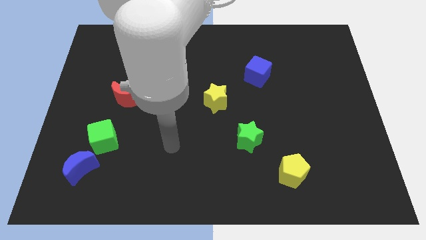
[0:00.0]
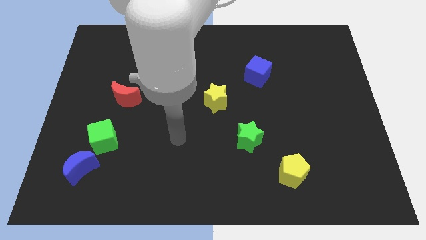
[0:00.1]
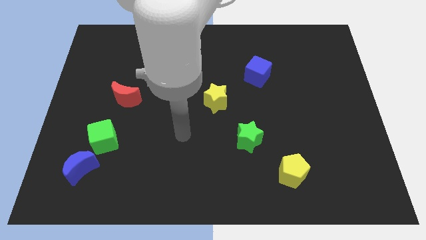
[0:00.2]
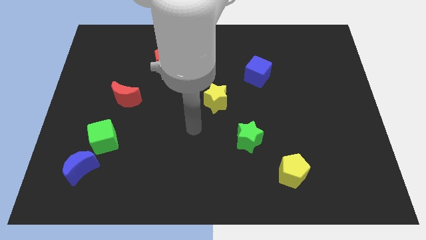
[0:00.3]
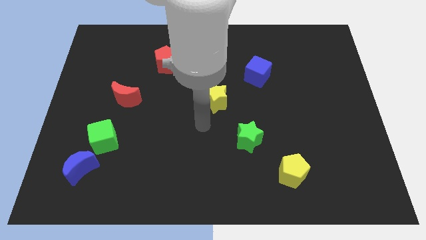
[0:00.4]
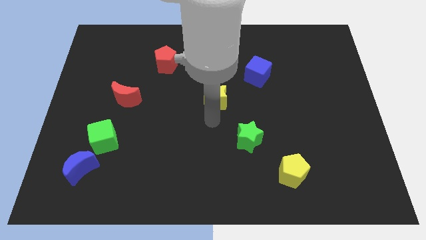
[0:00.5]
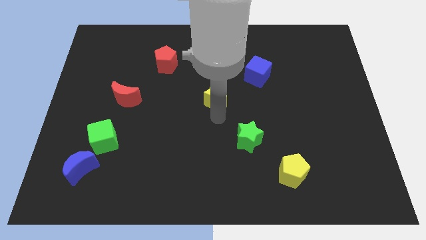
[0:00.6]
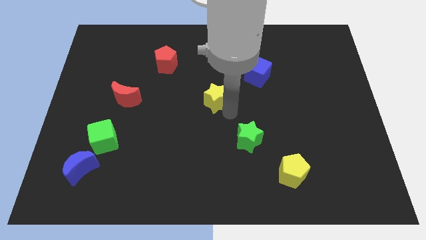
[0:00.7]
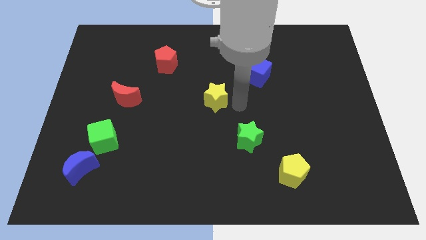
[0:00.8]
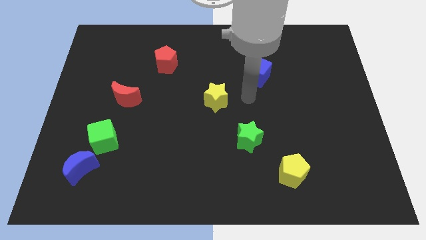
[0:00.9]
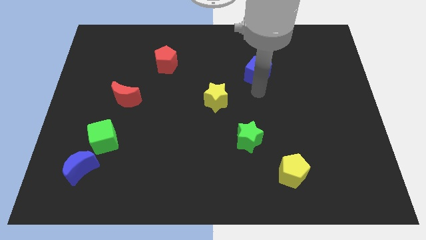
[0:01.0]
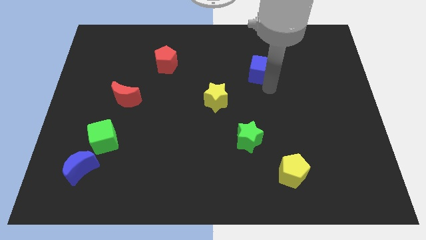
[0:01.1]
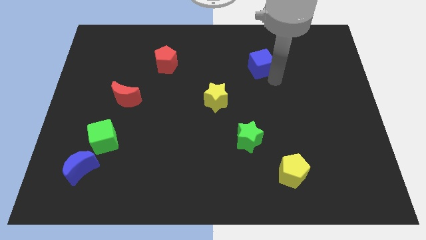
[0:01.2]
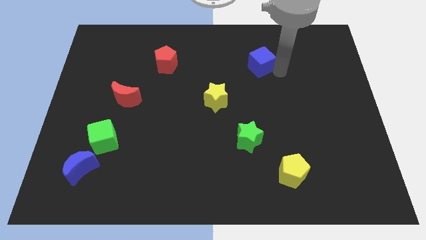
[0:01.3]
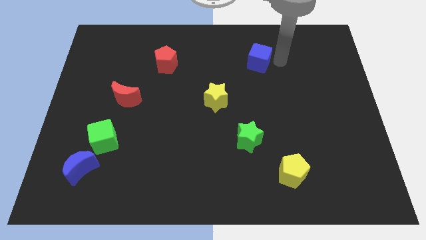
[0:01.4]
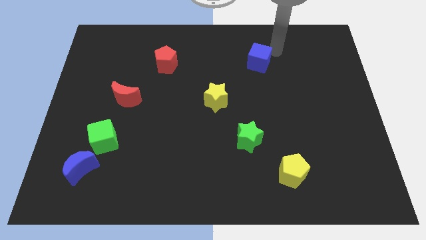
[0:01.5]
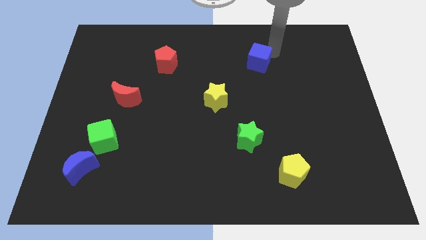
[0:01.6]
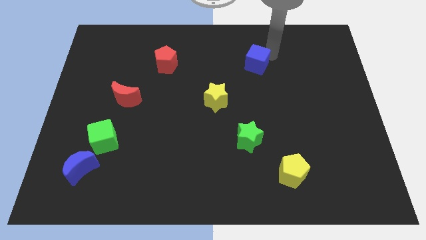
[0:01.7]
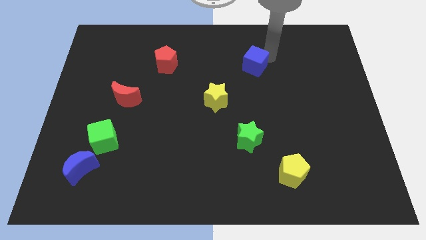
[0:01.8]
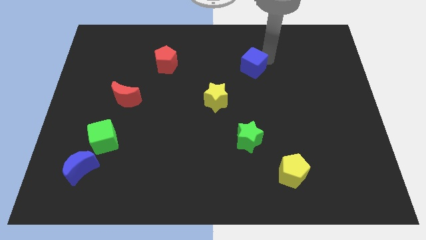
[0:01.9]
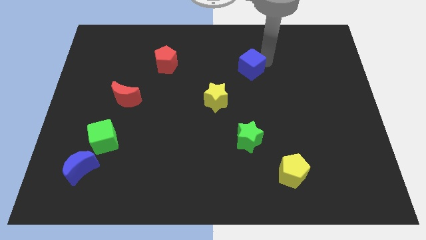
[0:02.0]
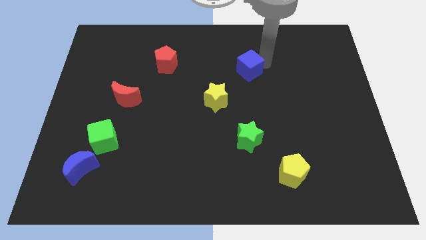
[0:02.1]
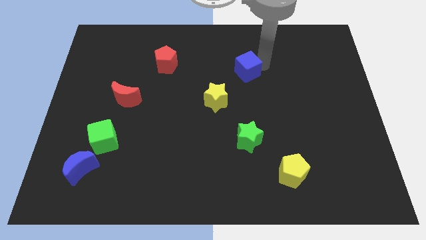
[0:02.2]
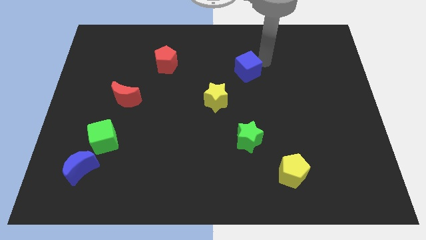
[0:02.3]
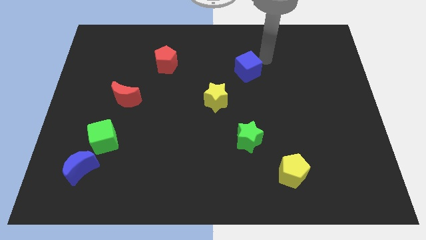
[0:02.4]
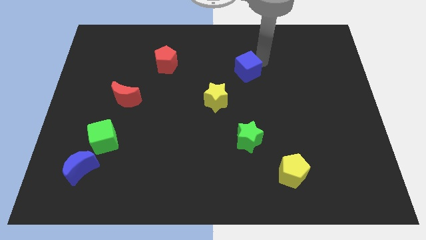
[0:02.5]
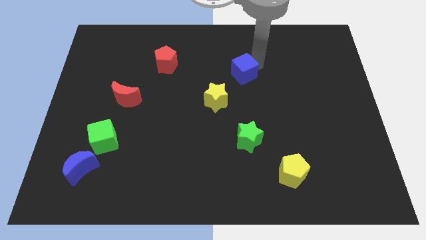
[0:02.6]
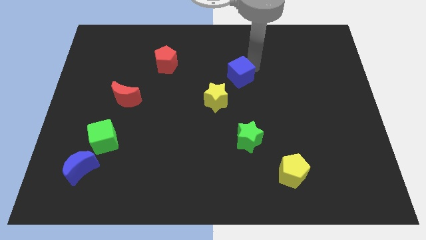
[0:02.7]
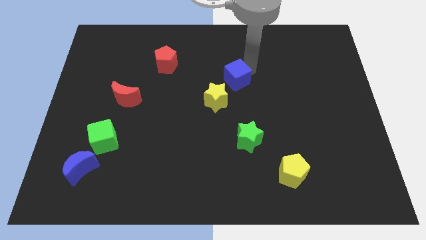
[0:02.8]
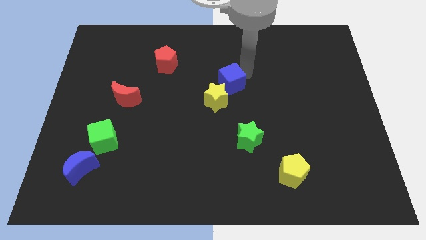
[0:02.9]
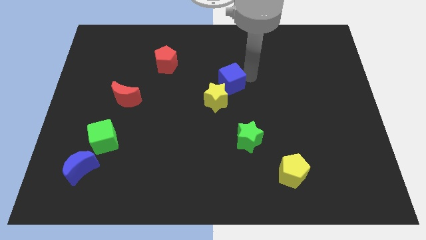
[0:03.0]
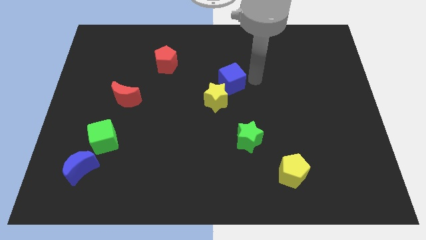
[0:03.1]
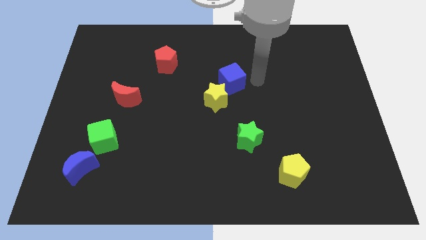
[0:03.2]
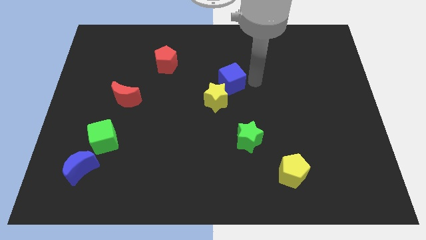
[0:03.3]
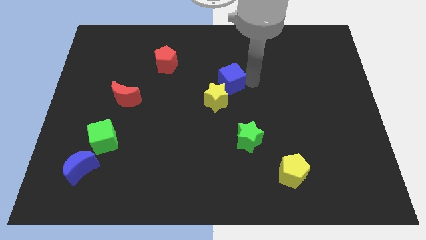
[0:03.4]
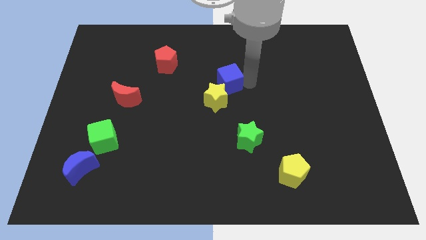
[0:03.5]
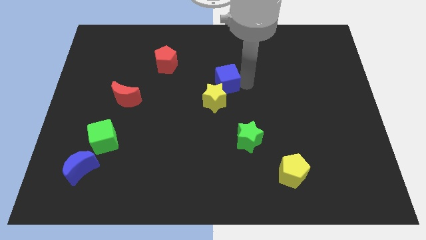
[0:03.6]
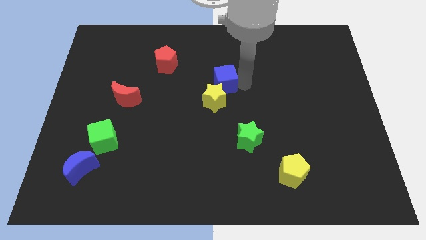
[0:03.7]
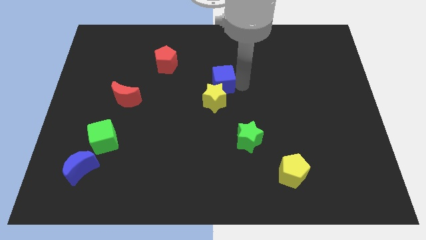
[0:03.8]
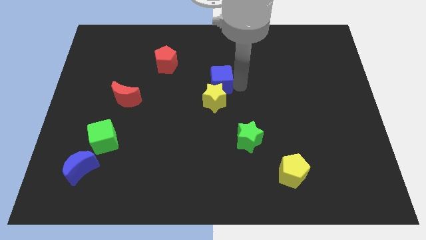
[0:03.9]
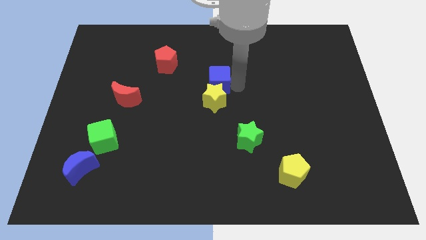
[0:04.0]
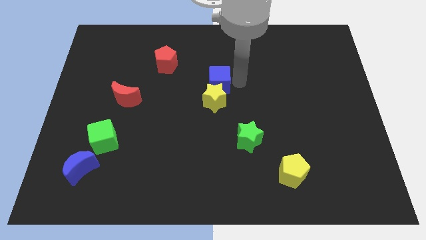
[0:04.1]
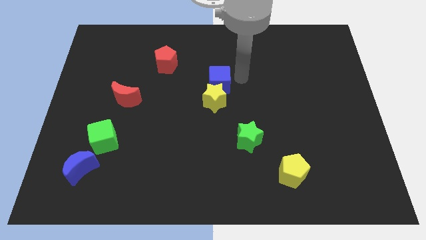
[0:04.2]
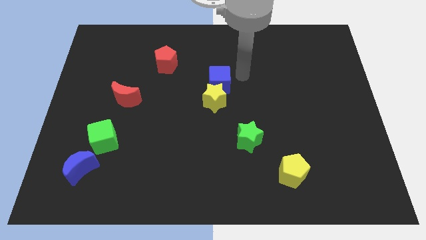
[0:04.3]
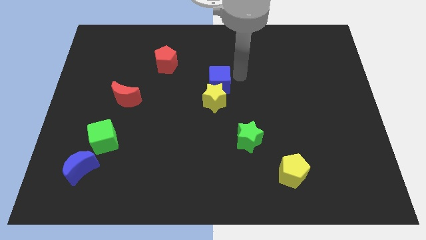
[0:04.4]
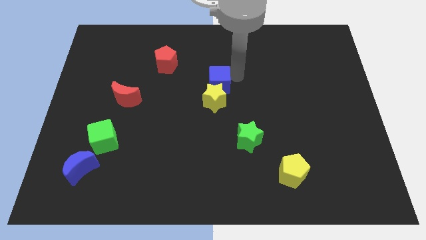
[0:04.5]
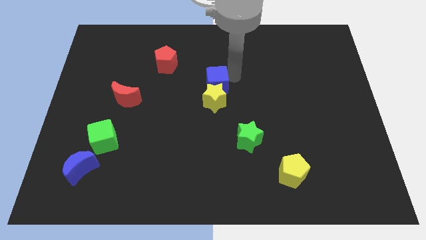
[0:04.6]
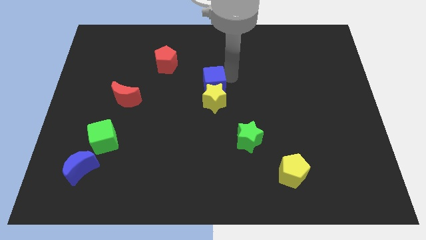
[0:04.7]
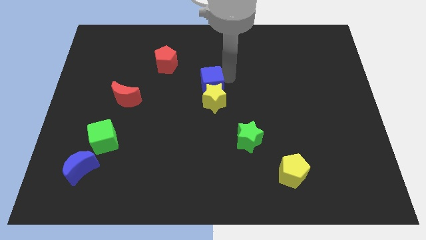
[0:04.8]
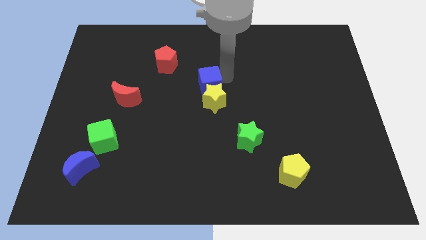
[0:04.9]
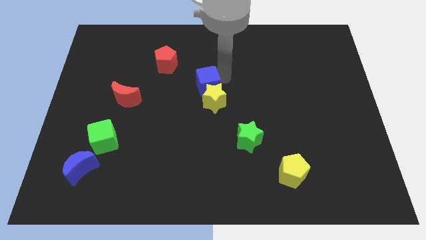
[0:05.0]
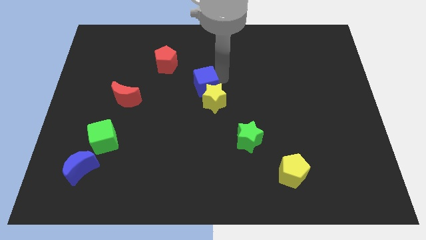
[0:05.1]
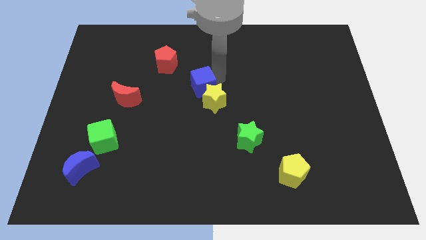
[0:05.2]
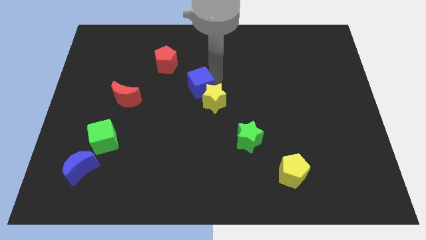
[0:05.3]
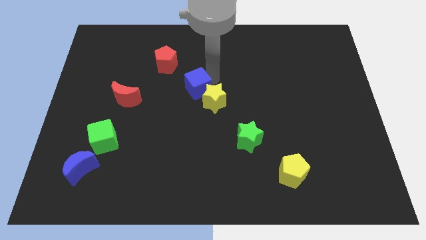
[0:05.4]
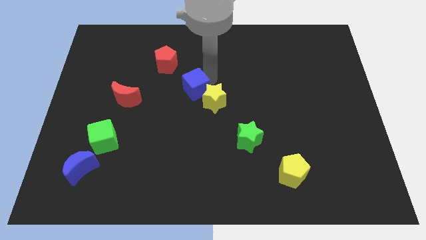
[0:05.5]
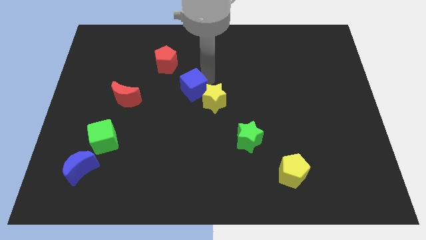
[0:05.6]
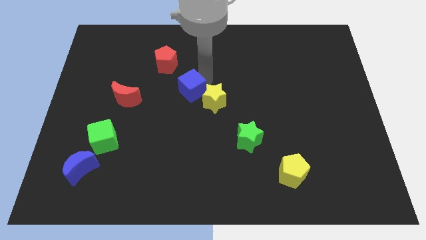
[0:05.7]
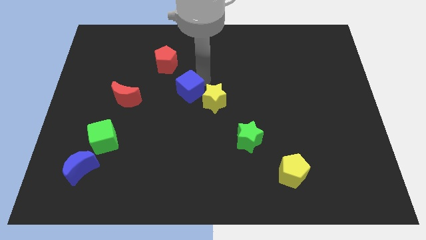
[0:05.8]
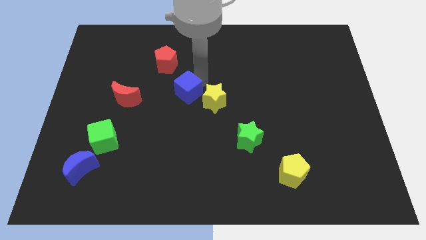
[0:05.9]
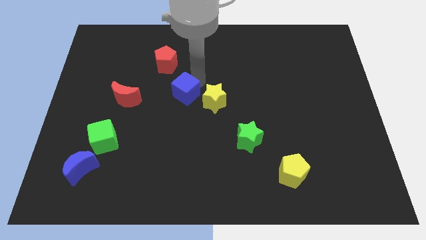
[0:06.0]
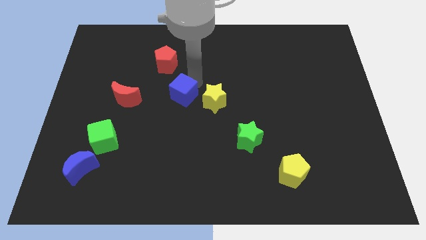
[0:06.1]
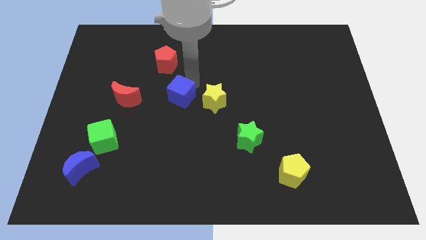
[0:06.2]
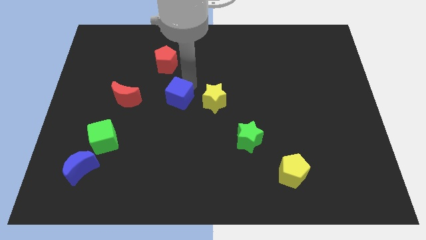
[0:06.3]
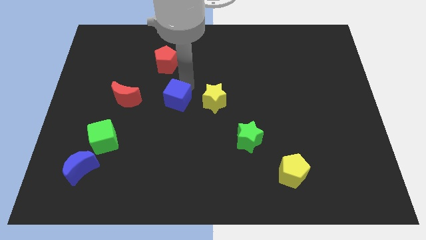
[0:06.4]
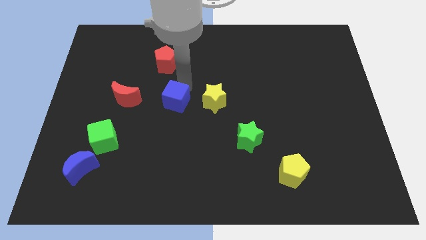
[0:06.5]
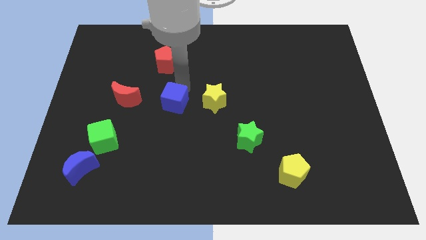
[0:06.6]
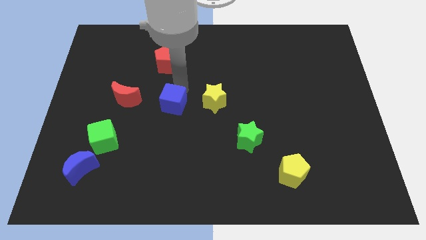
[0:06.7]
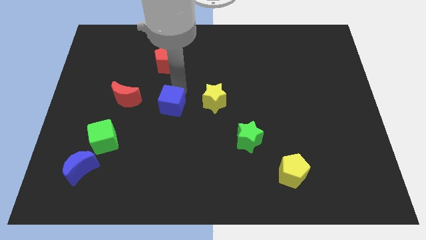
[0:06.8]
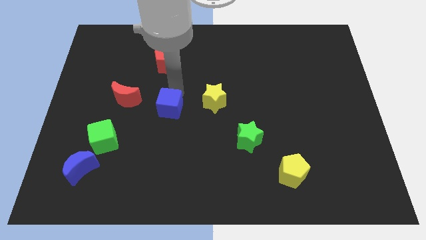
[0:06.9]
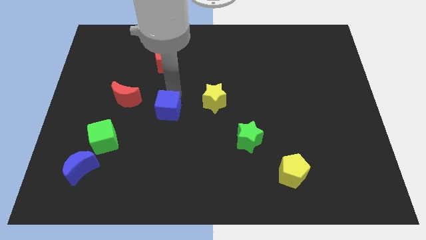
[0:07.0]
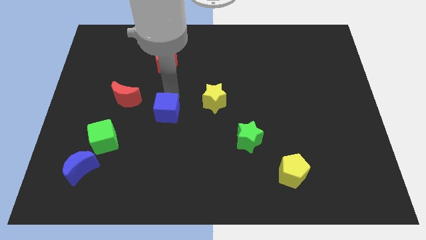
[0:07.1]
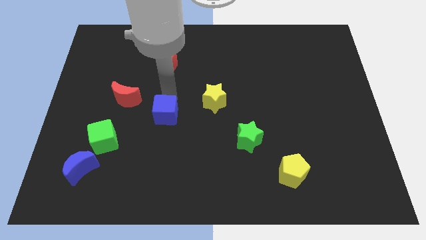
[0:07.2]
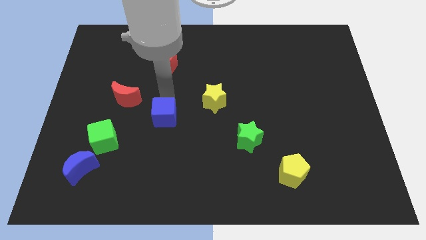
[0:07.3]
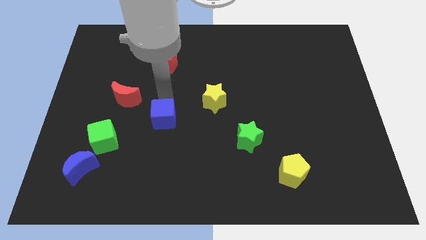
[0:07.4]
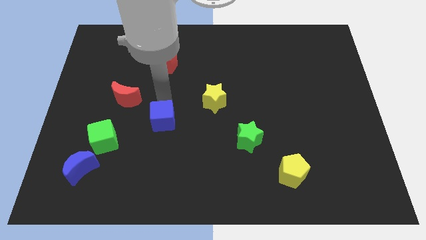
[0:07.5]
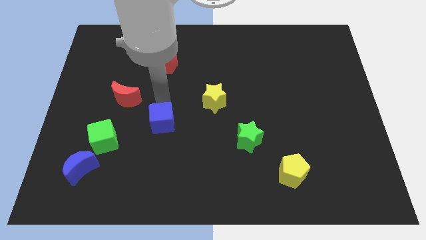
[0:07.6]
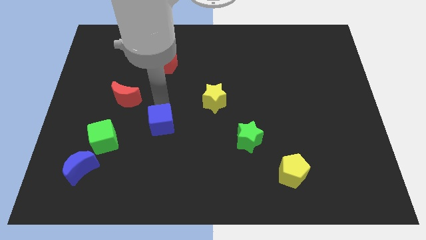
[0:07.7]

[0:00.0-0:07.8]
push the blue cube to the right of the green cube
